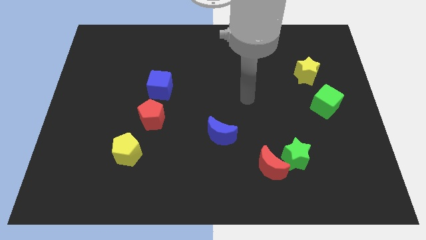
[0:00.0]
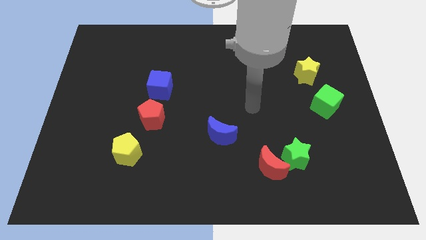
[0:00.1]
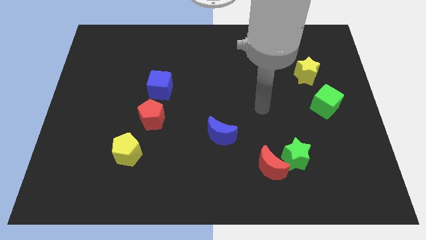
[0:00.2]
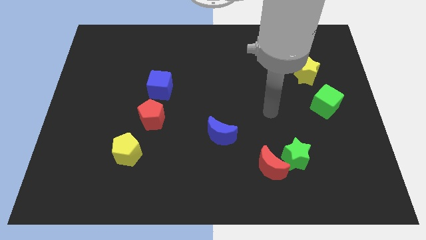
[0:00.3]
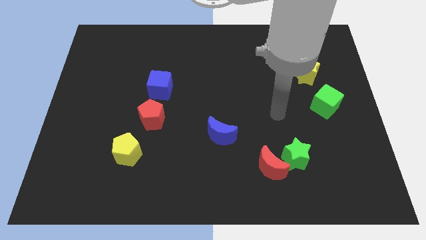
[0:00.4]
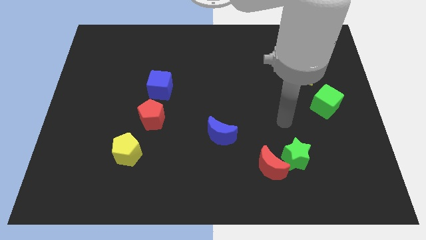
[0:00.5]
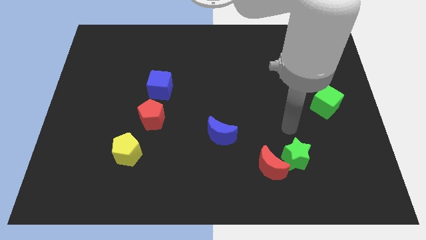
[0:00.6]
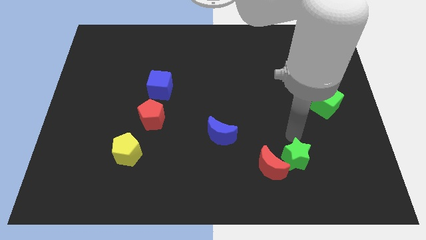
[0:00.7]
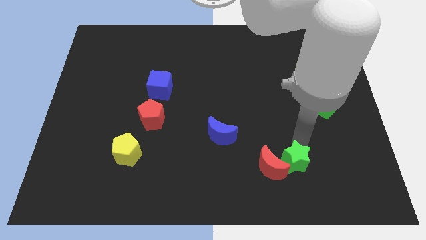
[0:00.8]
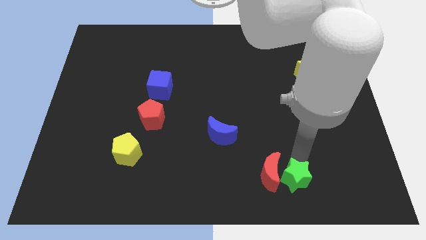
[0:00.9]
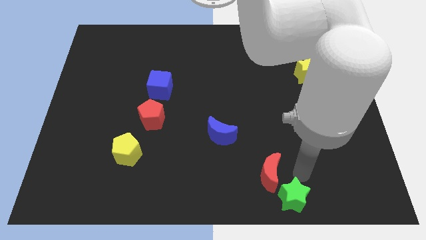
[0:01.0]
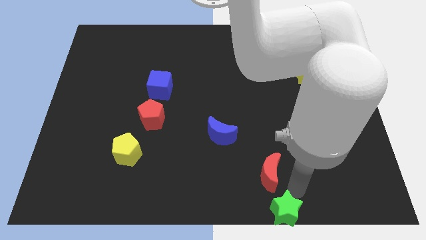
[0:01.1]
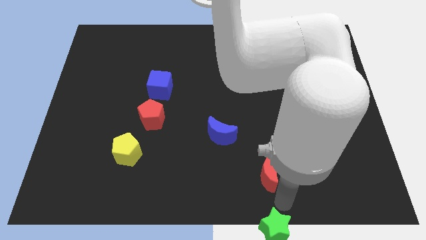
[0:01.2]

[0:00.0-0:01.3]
separate the red moon from the green star

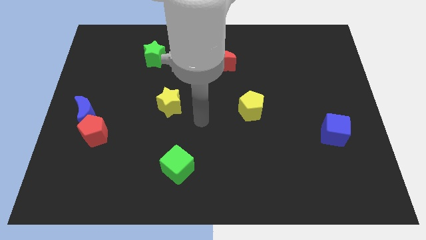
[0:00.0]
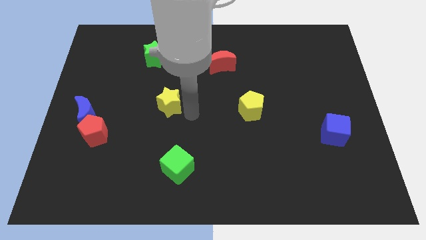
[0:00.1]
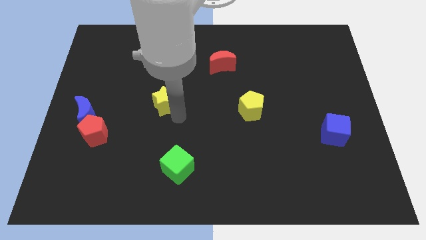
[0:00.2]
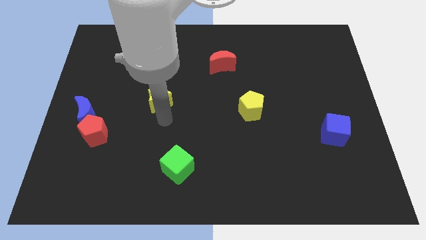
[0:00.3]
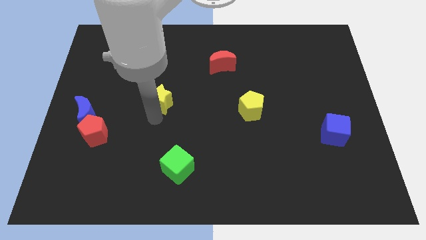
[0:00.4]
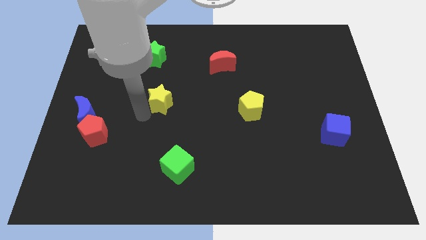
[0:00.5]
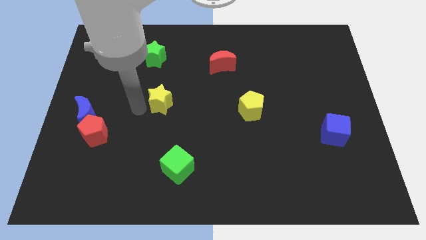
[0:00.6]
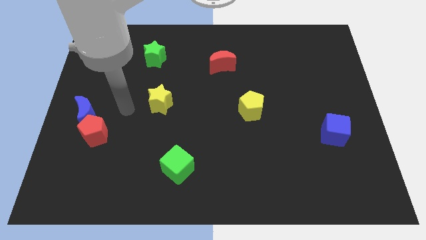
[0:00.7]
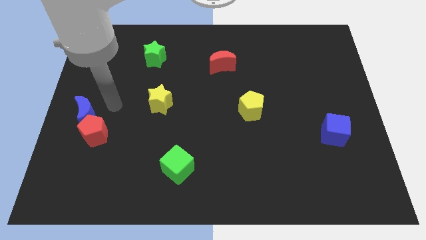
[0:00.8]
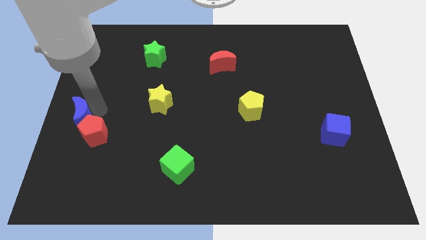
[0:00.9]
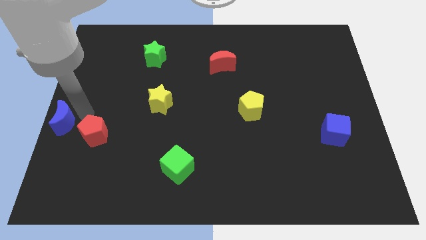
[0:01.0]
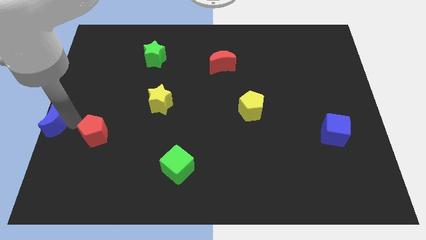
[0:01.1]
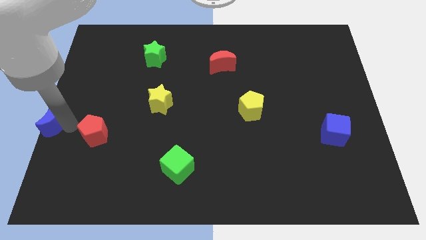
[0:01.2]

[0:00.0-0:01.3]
pull the red pentagon apart from the blue moon

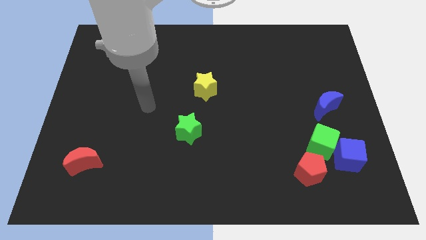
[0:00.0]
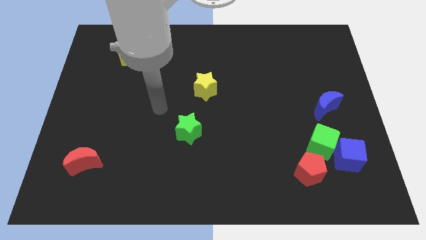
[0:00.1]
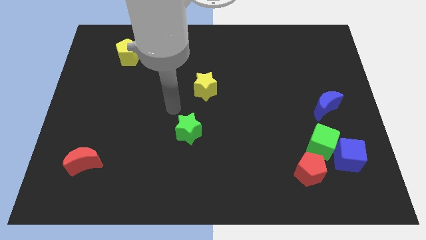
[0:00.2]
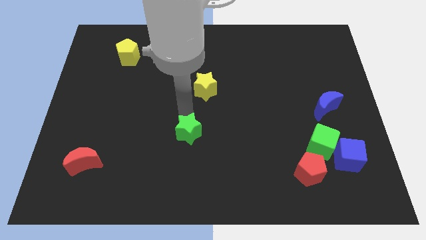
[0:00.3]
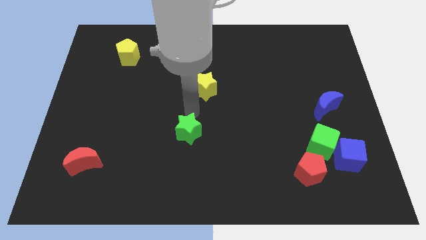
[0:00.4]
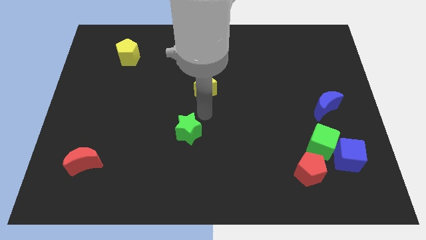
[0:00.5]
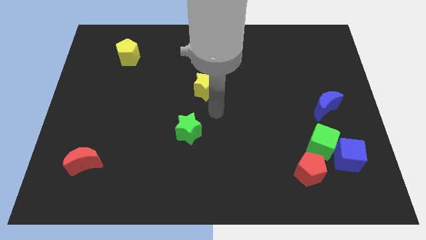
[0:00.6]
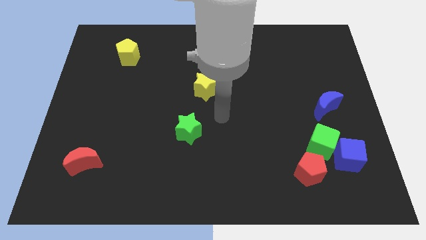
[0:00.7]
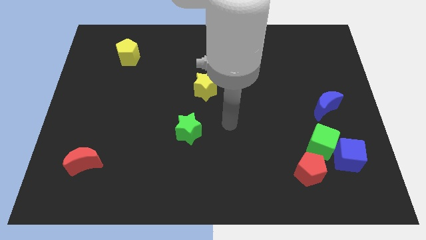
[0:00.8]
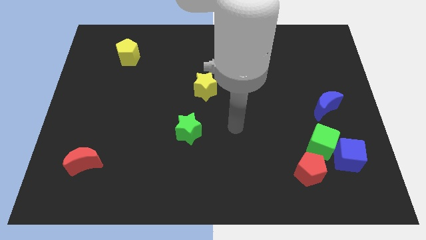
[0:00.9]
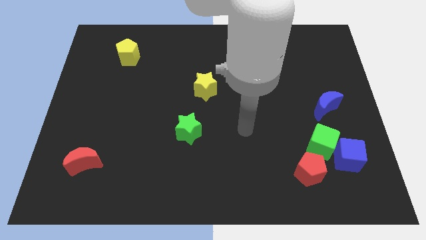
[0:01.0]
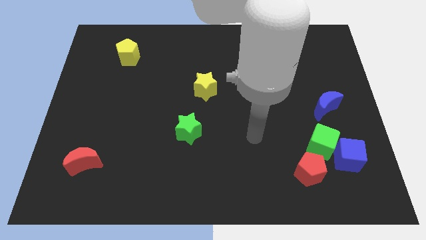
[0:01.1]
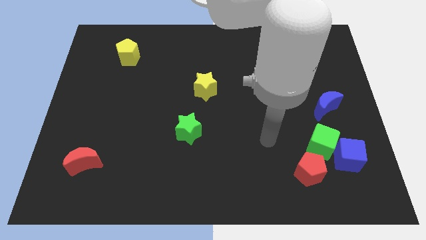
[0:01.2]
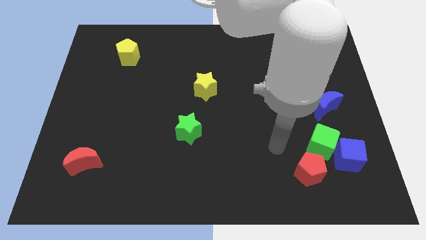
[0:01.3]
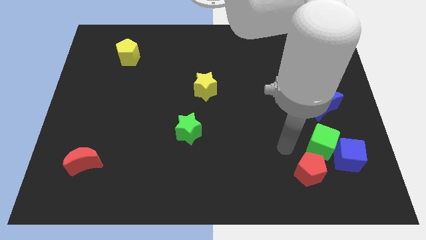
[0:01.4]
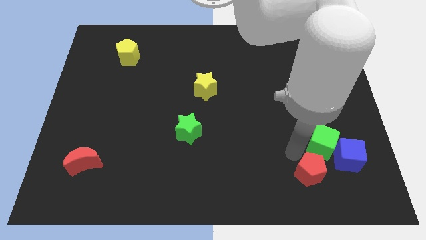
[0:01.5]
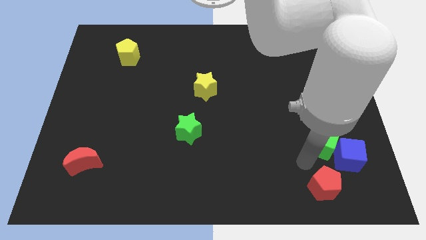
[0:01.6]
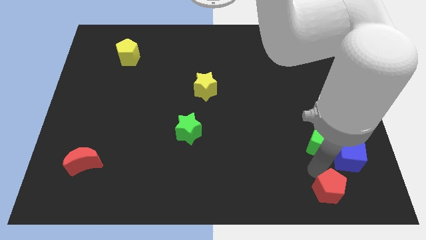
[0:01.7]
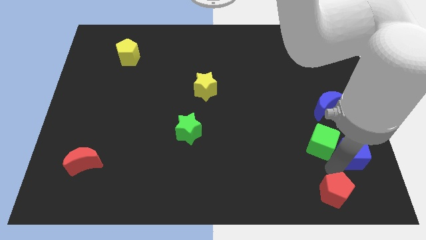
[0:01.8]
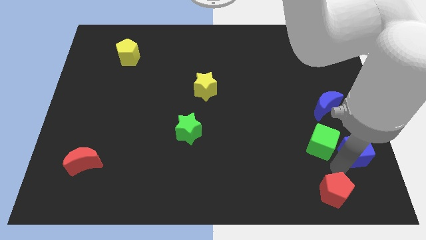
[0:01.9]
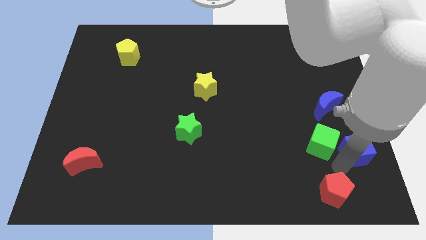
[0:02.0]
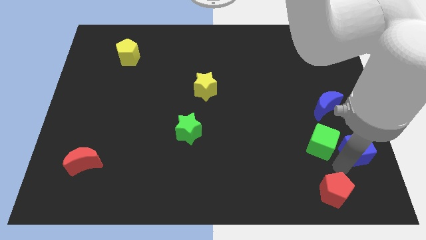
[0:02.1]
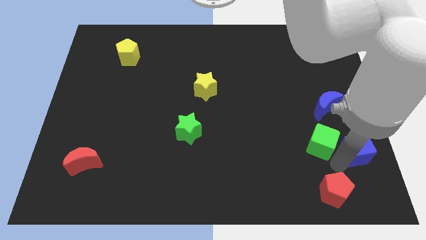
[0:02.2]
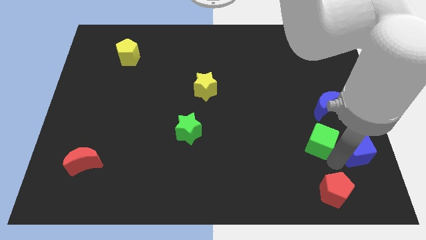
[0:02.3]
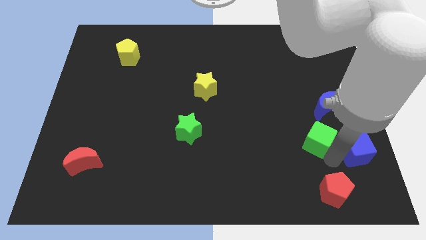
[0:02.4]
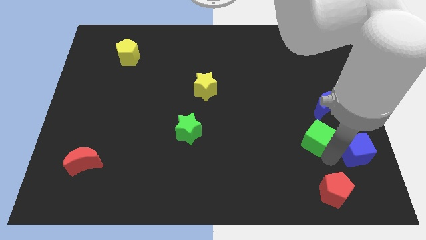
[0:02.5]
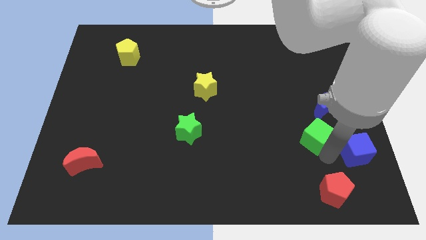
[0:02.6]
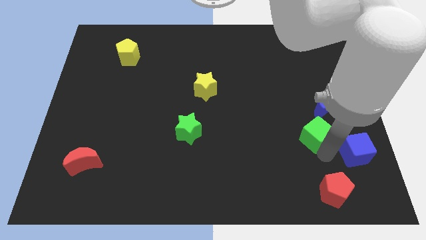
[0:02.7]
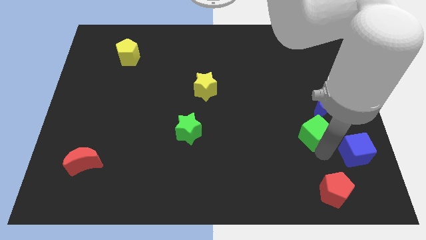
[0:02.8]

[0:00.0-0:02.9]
separate the green cube from the blue cube and red pentagon

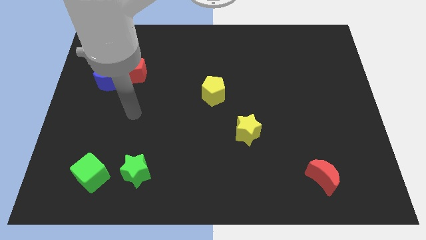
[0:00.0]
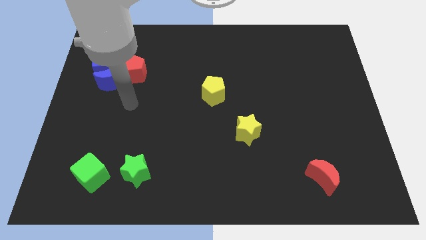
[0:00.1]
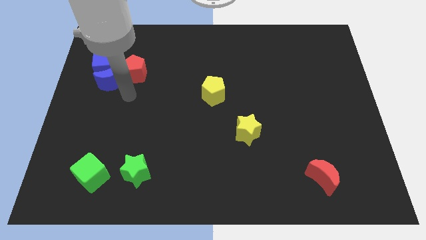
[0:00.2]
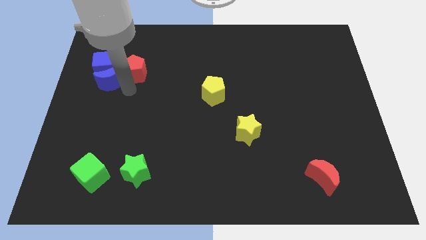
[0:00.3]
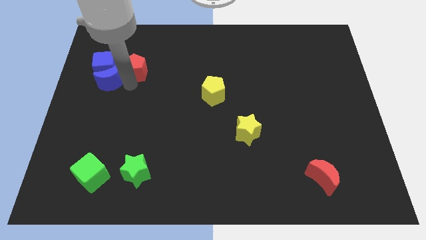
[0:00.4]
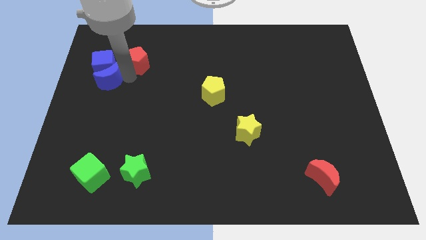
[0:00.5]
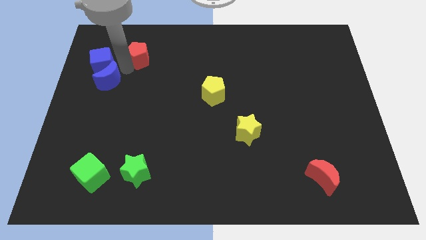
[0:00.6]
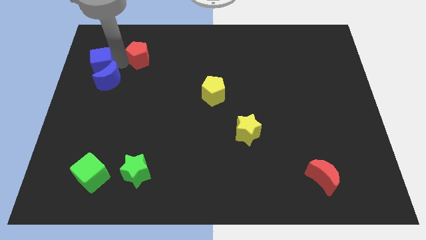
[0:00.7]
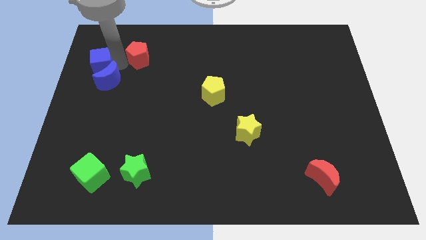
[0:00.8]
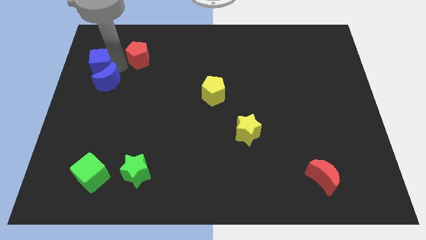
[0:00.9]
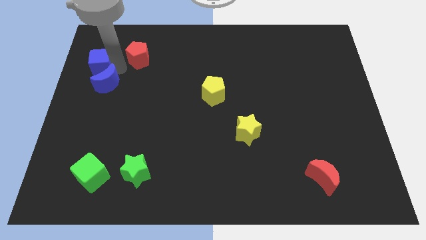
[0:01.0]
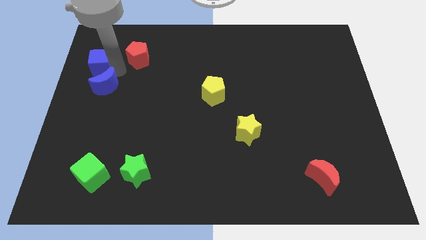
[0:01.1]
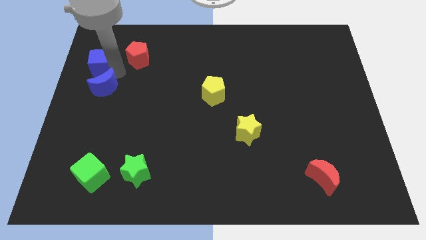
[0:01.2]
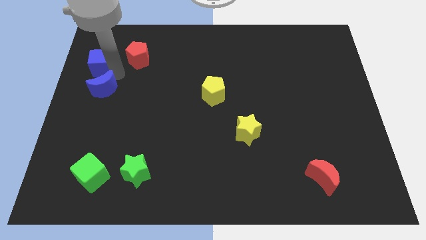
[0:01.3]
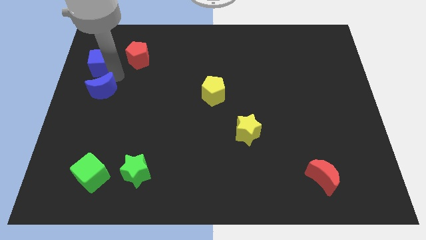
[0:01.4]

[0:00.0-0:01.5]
move the blue moon away from the blue cube and red pentagon

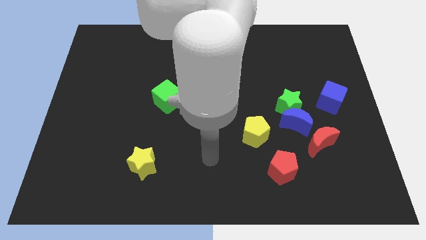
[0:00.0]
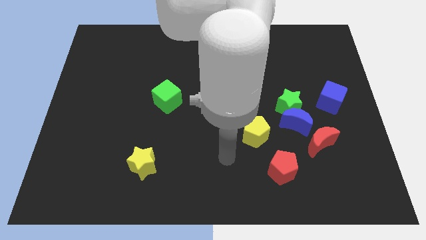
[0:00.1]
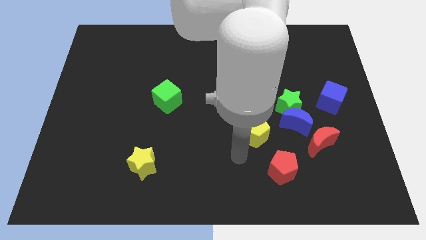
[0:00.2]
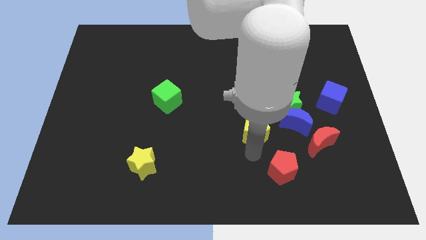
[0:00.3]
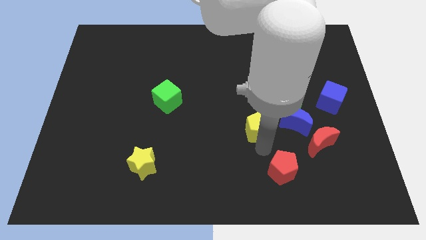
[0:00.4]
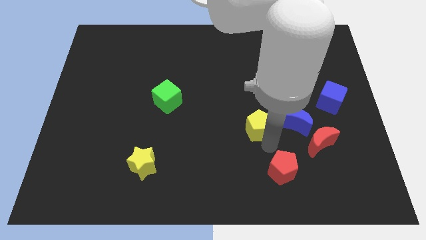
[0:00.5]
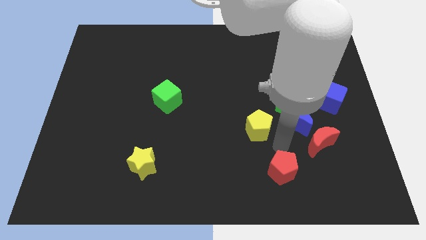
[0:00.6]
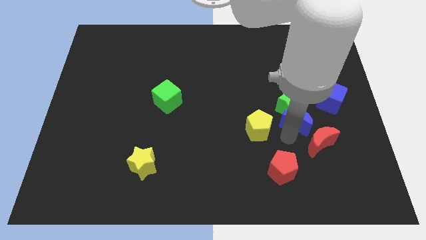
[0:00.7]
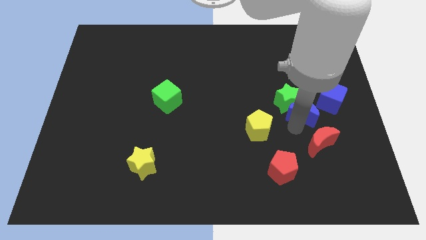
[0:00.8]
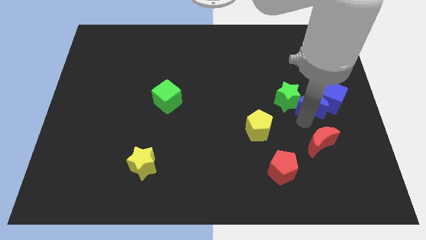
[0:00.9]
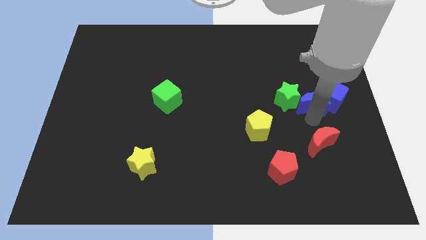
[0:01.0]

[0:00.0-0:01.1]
pull the red moon apart from the blue moon

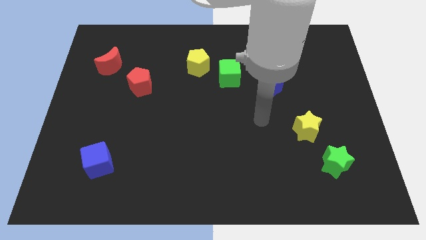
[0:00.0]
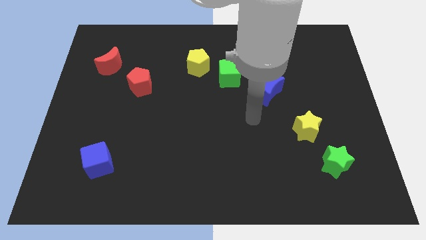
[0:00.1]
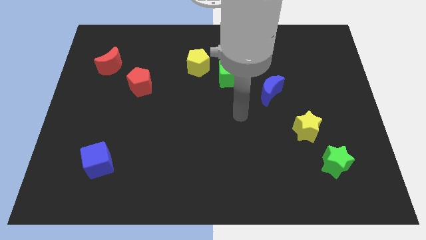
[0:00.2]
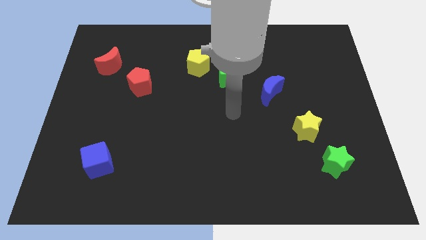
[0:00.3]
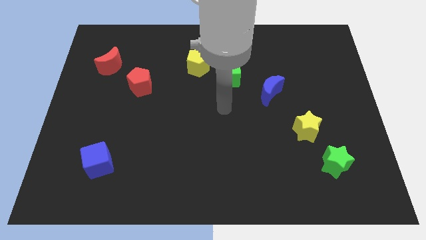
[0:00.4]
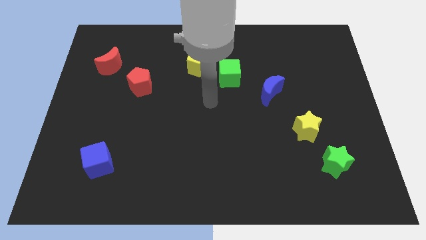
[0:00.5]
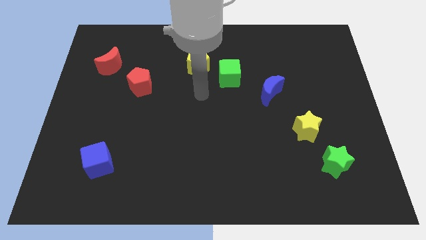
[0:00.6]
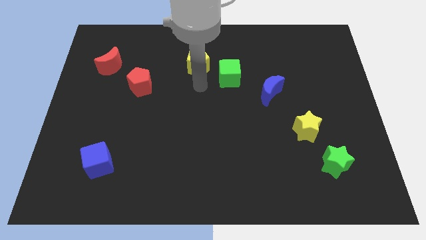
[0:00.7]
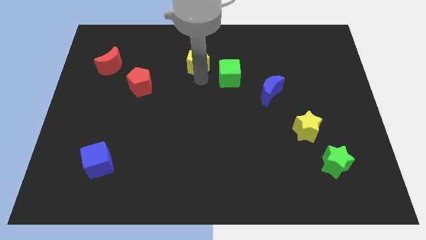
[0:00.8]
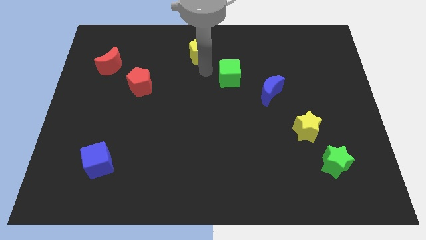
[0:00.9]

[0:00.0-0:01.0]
pull the green cube apart from the yellow pentagon

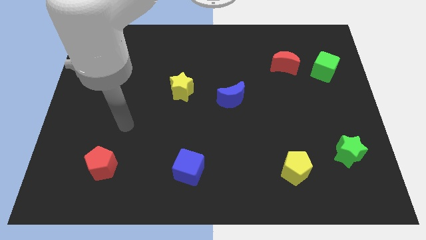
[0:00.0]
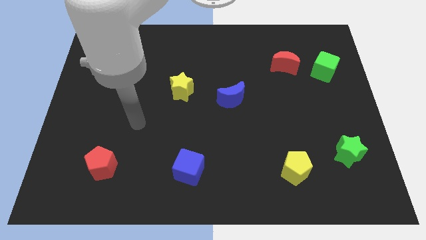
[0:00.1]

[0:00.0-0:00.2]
separate the red moon from the green cube

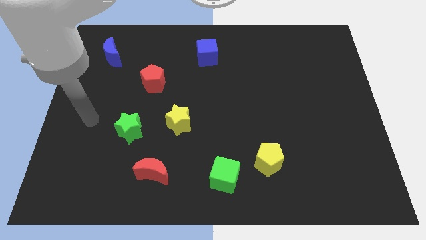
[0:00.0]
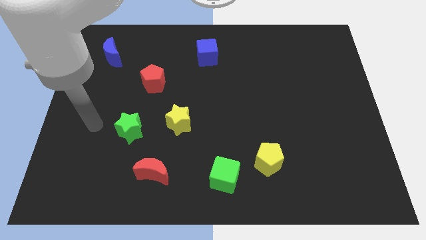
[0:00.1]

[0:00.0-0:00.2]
move the green cube away from the yellow pentagon
